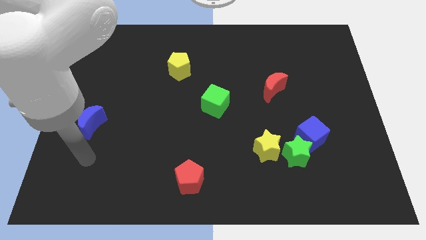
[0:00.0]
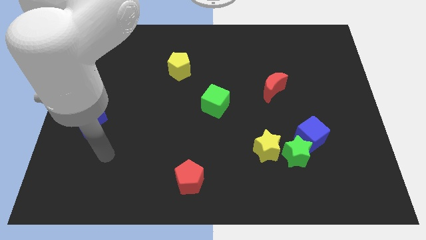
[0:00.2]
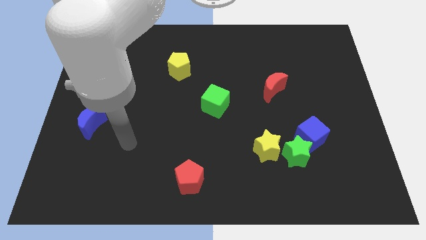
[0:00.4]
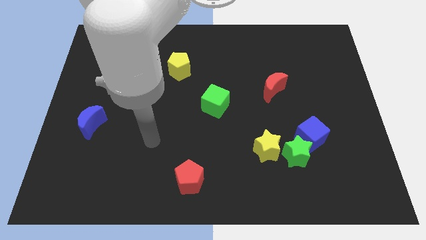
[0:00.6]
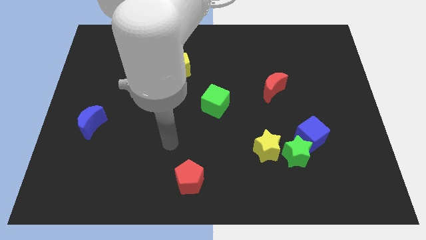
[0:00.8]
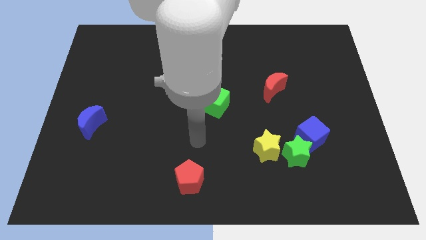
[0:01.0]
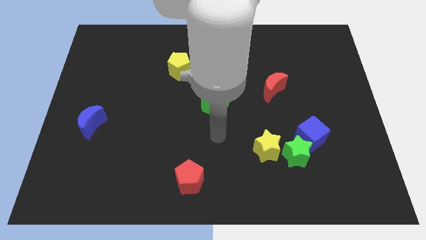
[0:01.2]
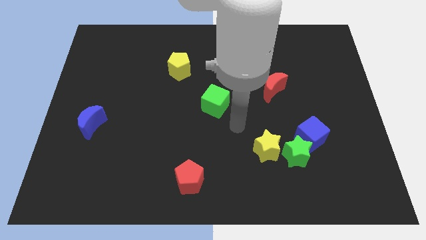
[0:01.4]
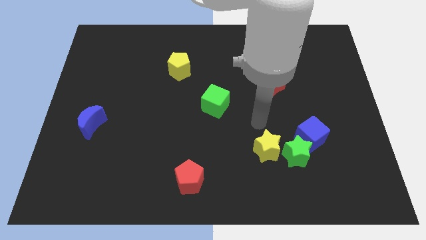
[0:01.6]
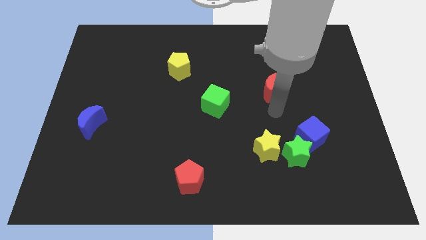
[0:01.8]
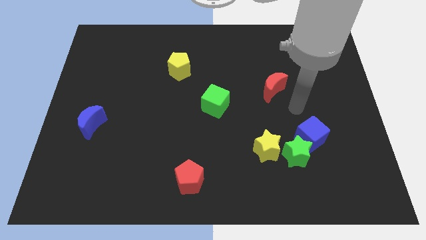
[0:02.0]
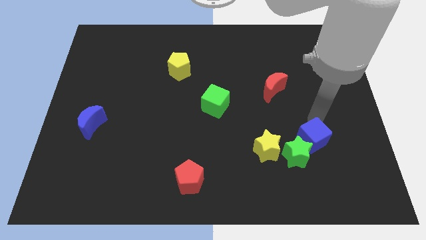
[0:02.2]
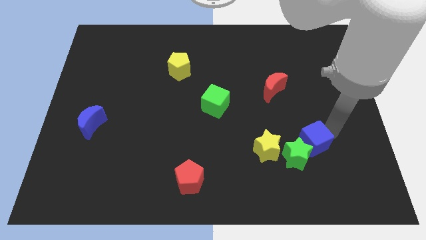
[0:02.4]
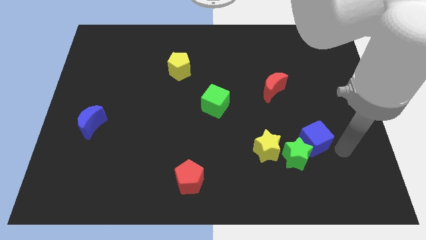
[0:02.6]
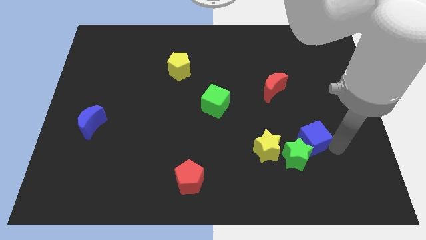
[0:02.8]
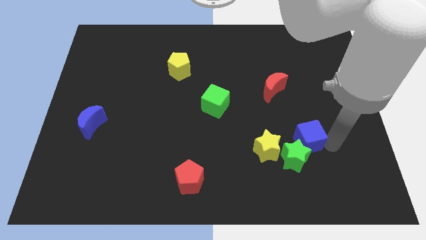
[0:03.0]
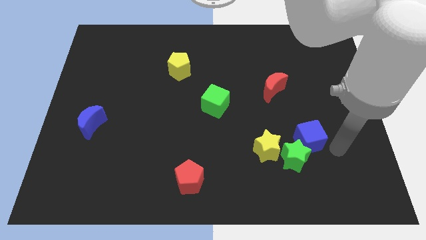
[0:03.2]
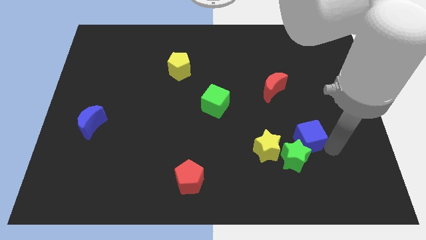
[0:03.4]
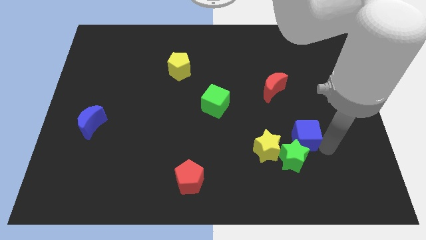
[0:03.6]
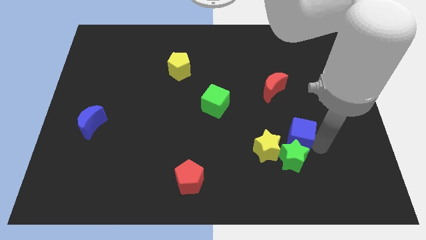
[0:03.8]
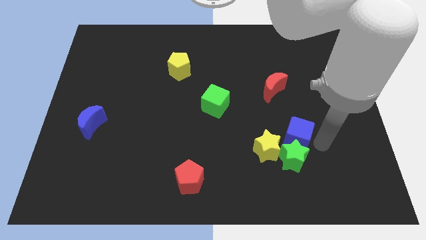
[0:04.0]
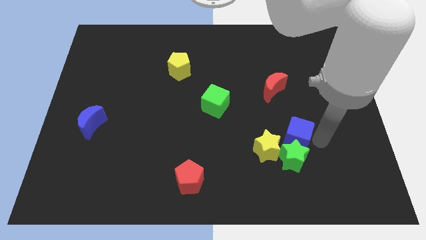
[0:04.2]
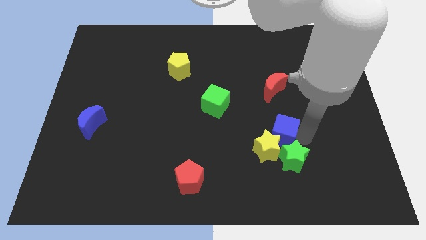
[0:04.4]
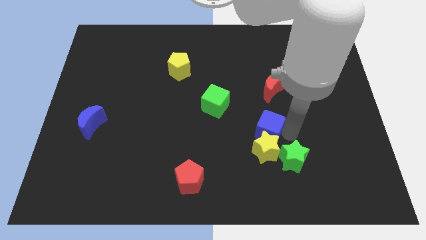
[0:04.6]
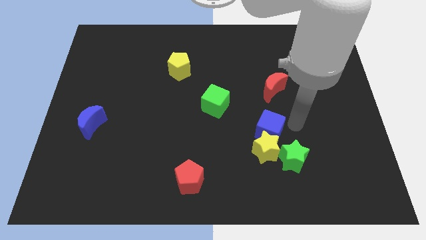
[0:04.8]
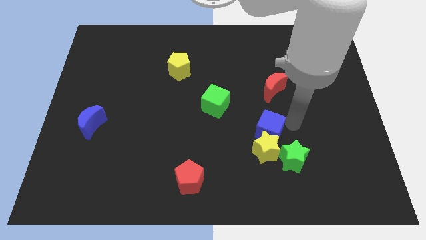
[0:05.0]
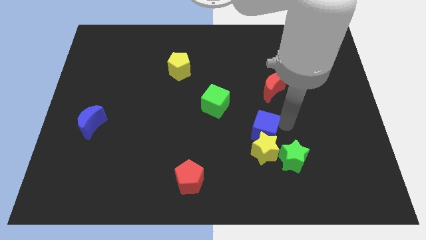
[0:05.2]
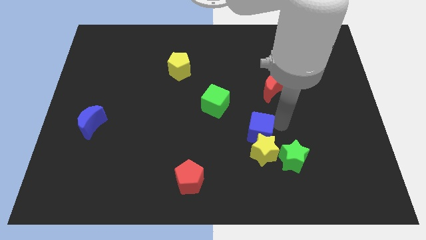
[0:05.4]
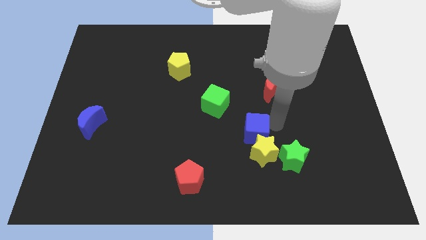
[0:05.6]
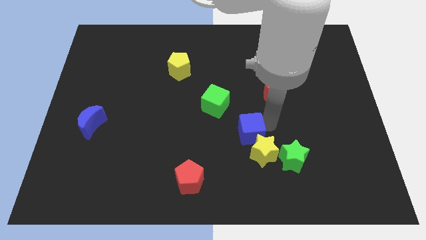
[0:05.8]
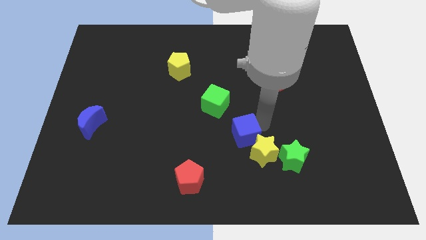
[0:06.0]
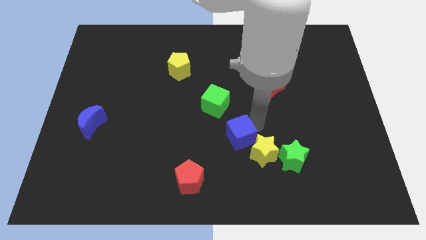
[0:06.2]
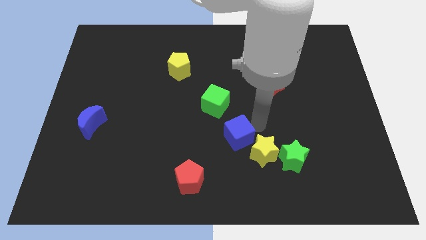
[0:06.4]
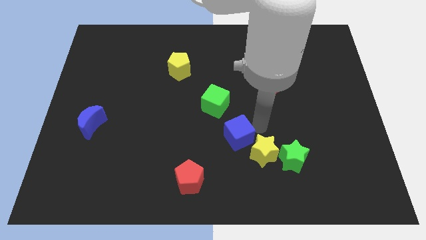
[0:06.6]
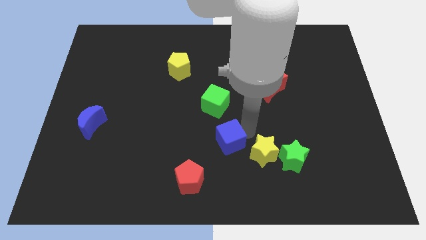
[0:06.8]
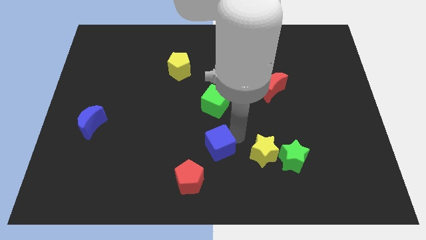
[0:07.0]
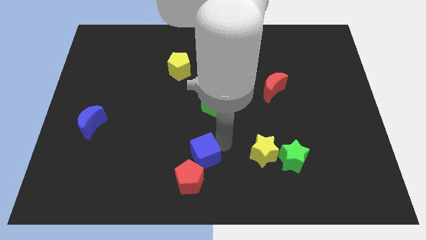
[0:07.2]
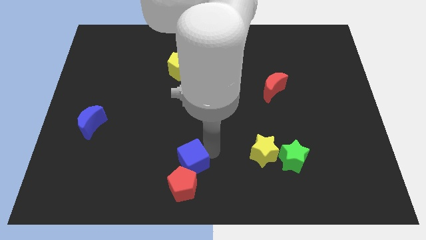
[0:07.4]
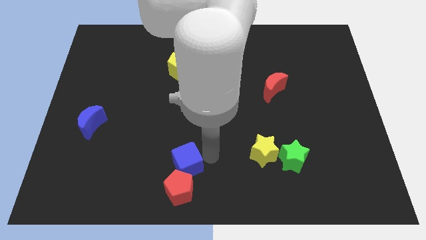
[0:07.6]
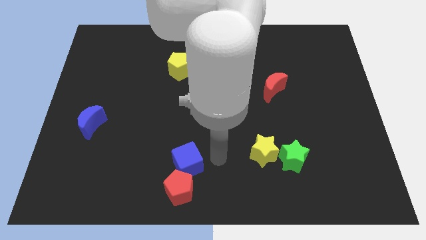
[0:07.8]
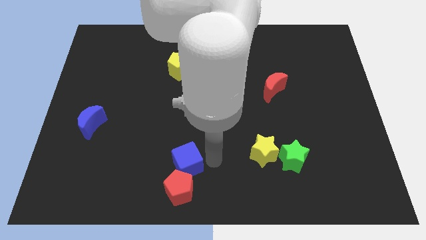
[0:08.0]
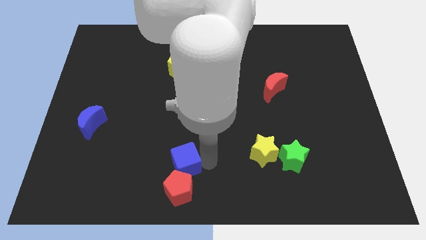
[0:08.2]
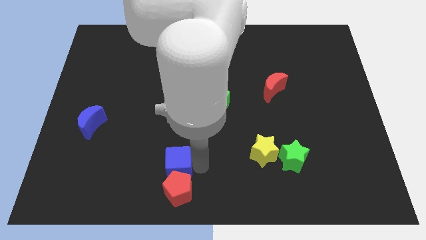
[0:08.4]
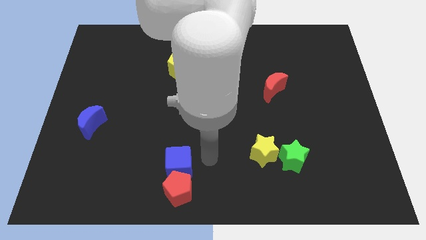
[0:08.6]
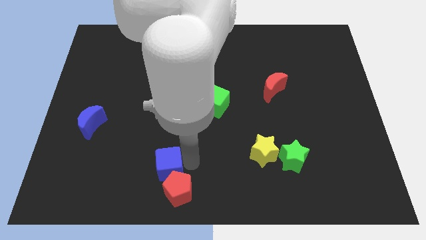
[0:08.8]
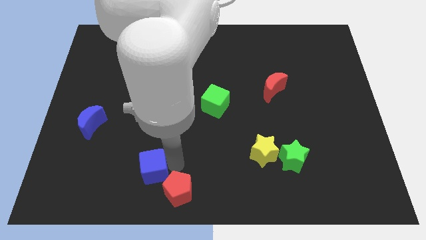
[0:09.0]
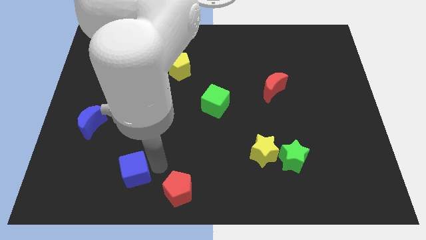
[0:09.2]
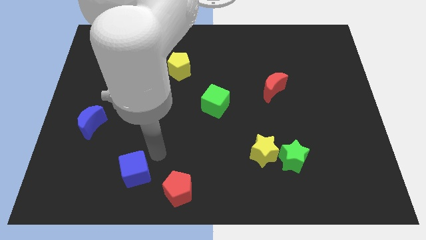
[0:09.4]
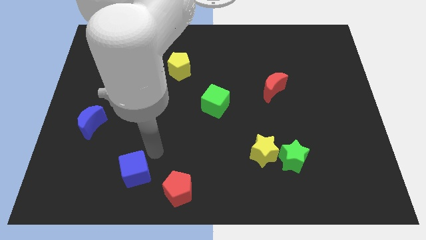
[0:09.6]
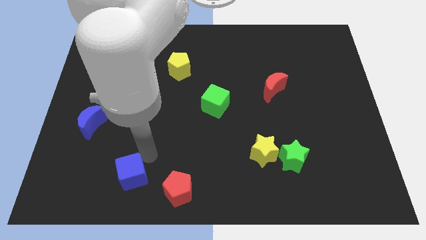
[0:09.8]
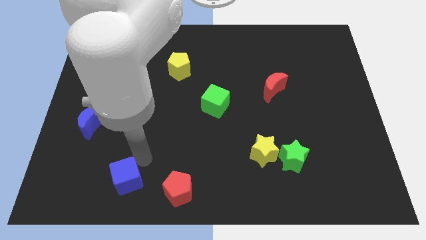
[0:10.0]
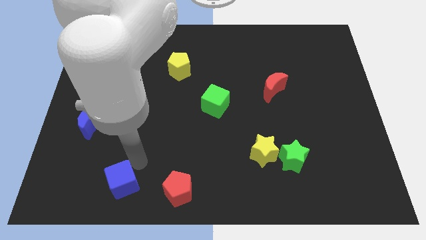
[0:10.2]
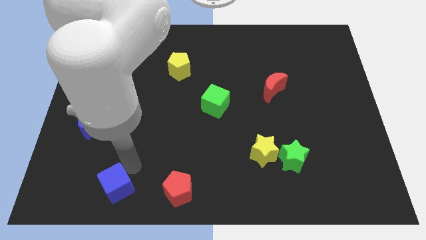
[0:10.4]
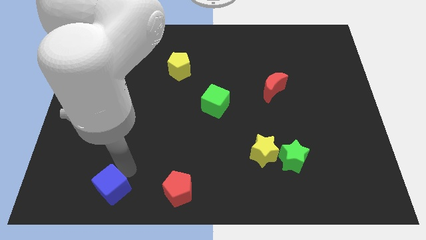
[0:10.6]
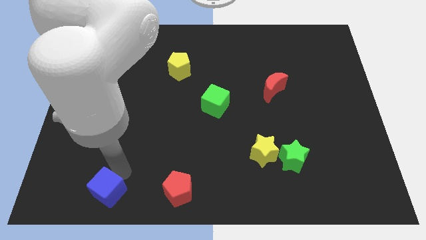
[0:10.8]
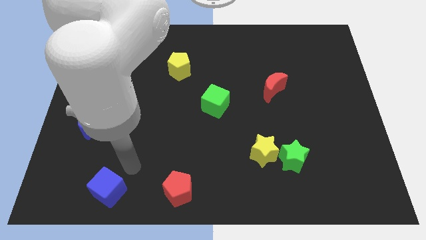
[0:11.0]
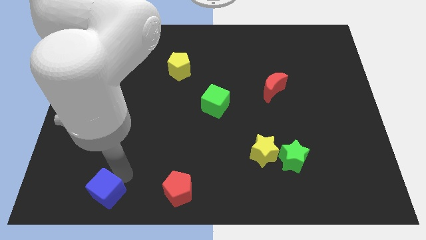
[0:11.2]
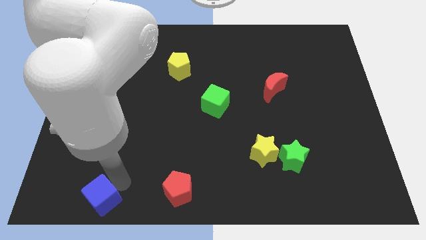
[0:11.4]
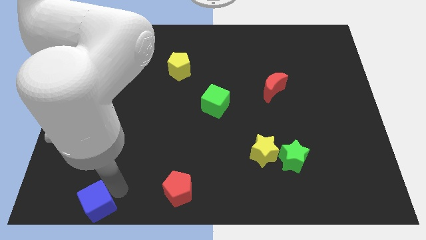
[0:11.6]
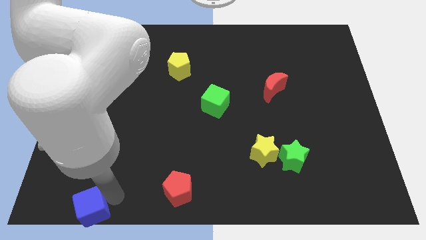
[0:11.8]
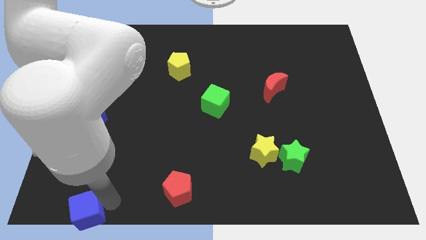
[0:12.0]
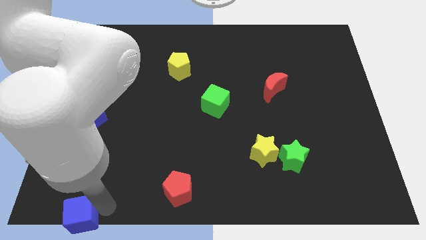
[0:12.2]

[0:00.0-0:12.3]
put the blue cube to the bottom left corner

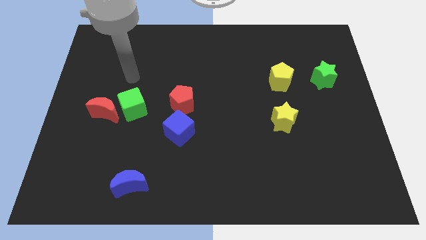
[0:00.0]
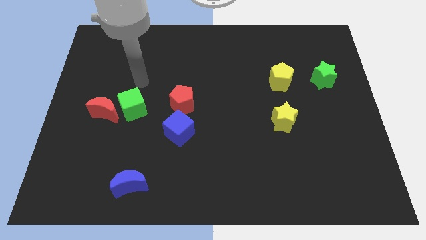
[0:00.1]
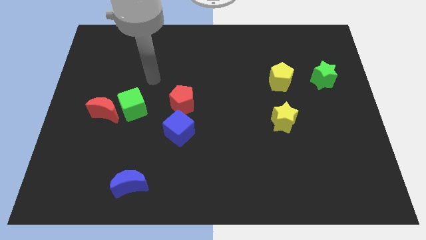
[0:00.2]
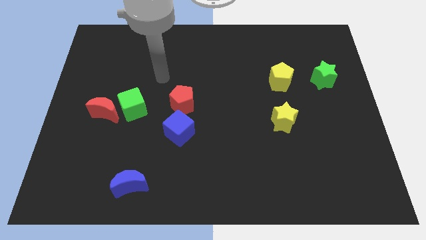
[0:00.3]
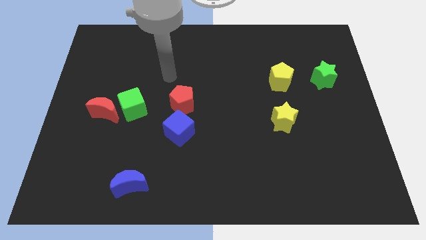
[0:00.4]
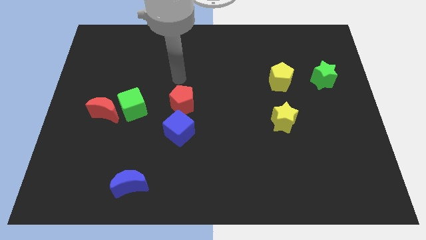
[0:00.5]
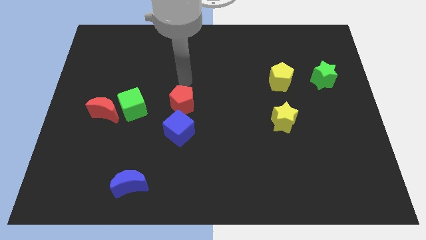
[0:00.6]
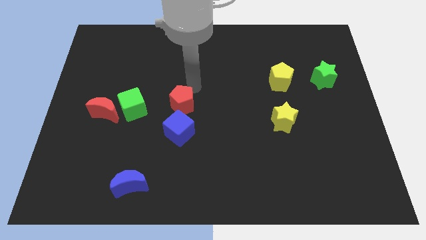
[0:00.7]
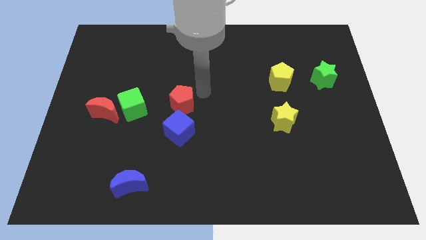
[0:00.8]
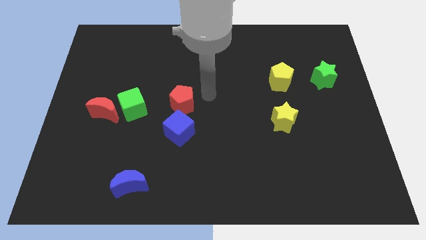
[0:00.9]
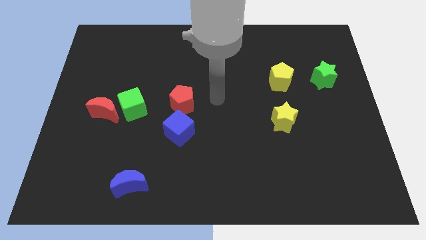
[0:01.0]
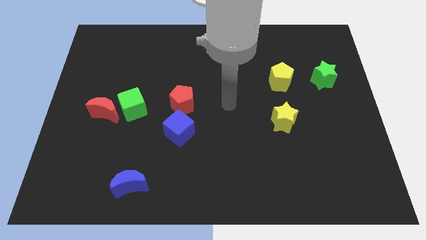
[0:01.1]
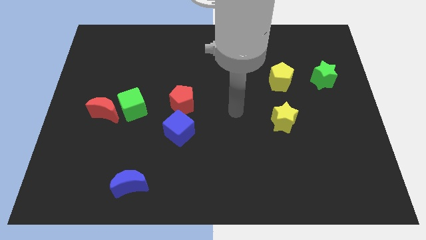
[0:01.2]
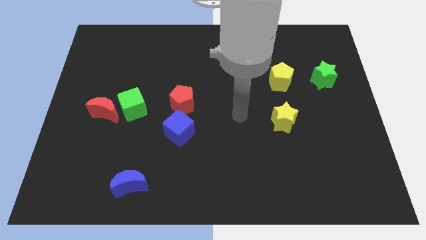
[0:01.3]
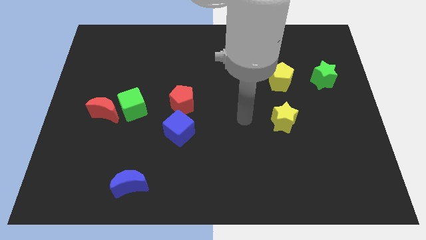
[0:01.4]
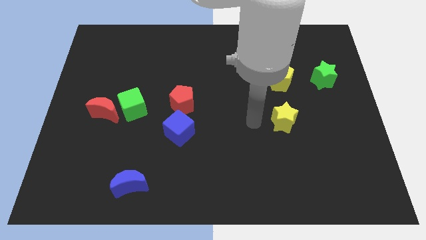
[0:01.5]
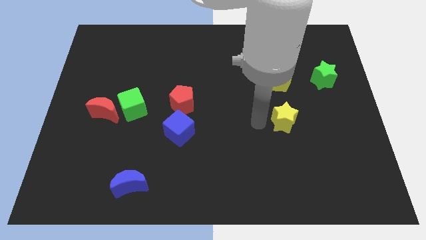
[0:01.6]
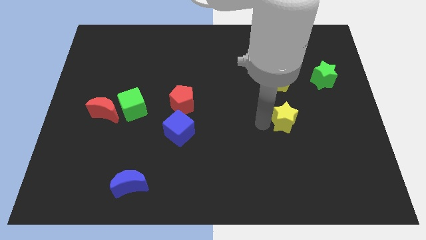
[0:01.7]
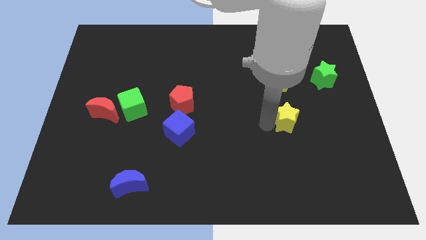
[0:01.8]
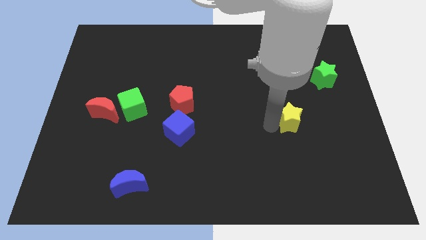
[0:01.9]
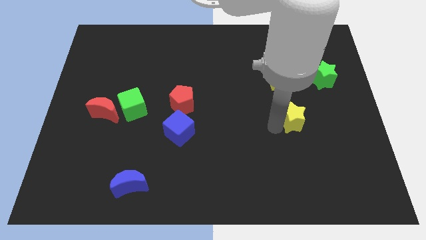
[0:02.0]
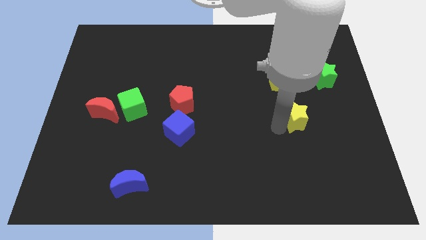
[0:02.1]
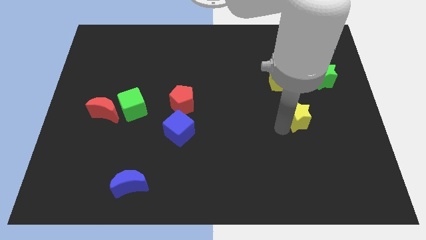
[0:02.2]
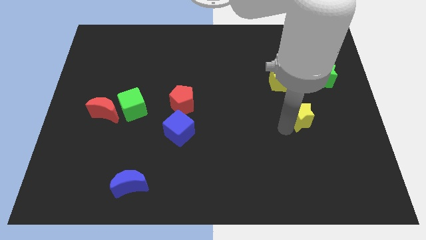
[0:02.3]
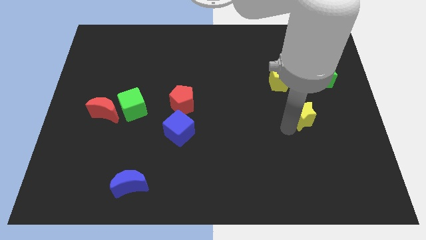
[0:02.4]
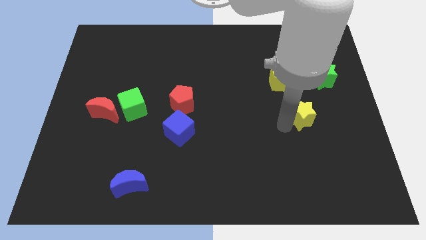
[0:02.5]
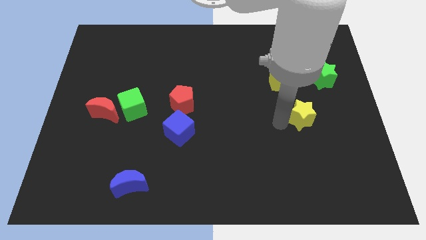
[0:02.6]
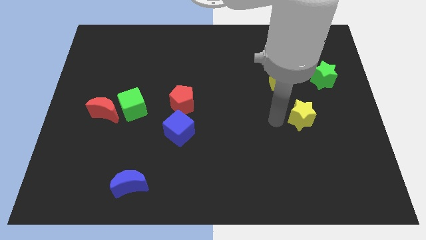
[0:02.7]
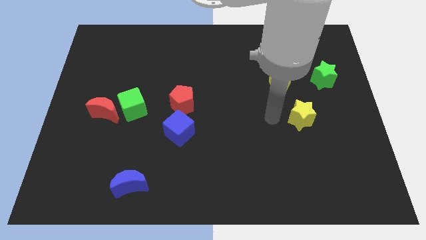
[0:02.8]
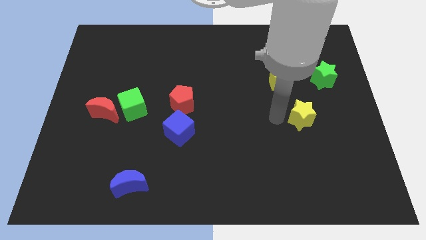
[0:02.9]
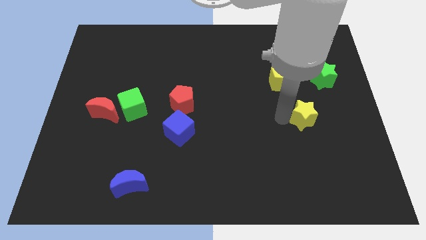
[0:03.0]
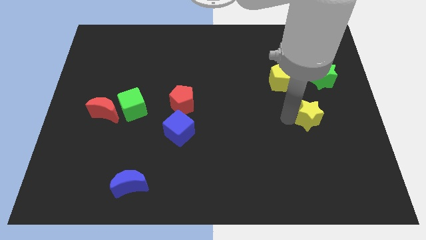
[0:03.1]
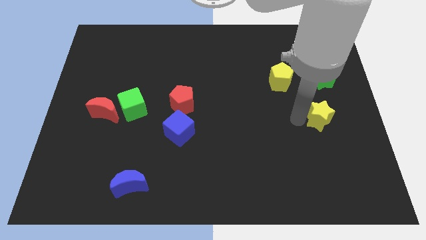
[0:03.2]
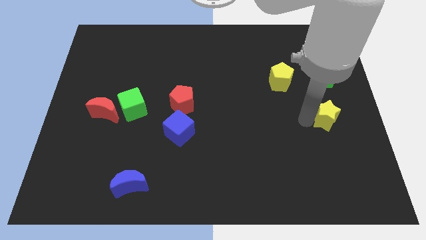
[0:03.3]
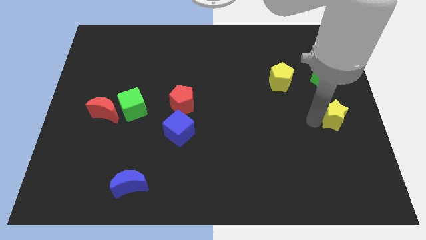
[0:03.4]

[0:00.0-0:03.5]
slide the yellow star to the right side of the board
